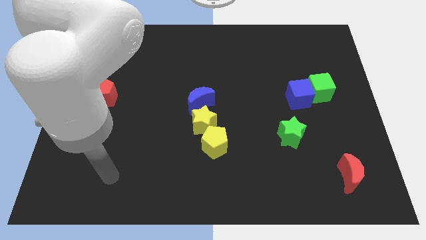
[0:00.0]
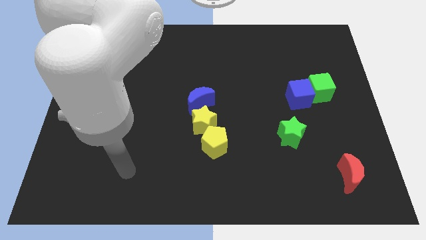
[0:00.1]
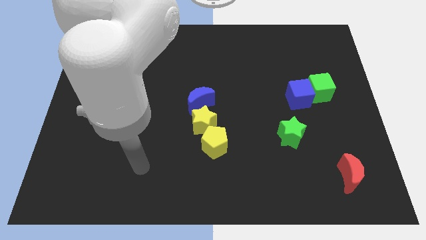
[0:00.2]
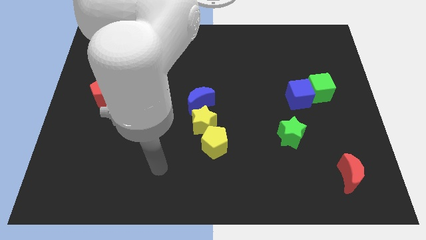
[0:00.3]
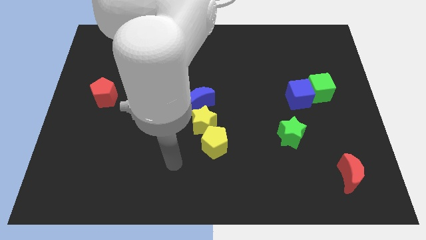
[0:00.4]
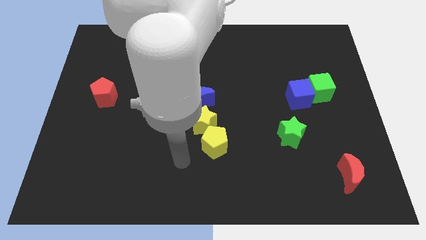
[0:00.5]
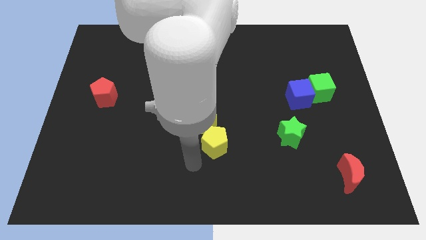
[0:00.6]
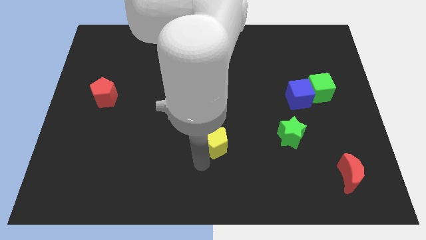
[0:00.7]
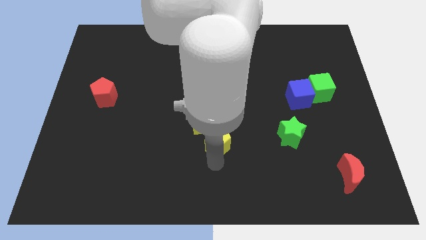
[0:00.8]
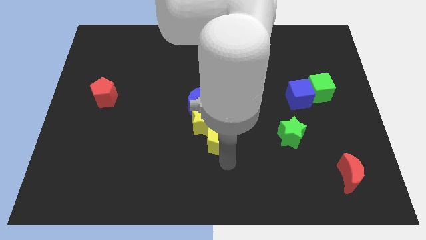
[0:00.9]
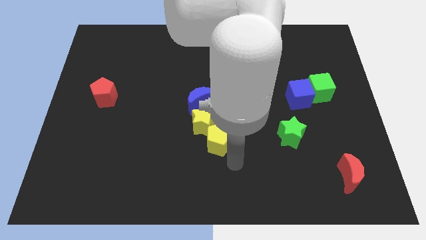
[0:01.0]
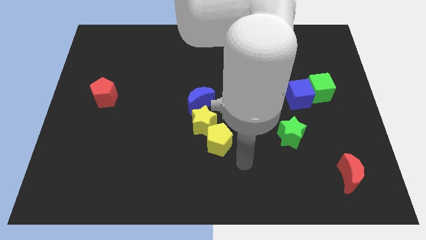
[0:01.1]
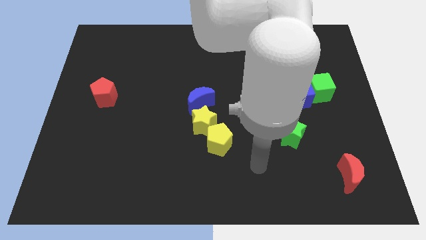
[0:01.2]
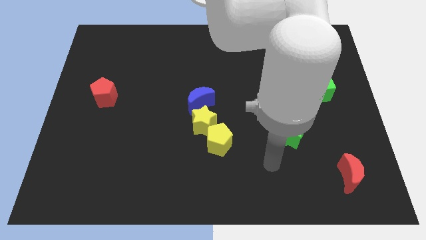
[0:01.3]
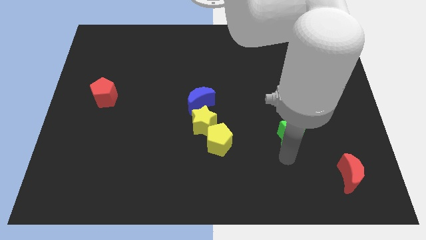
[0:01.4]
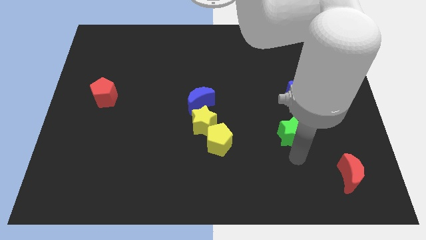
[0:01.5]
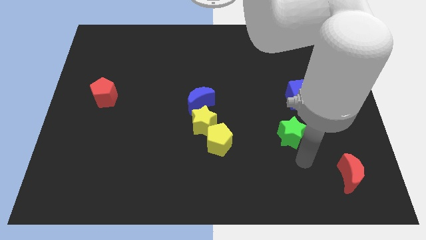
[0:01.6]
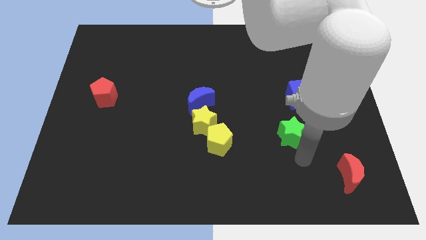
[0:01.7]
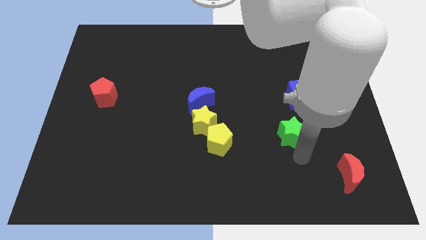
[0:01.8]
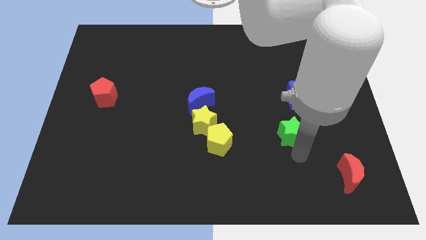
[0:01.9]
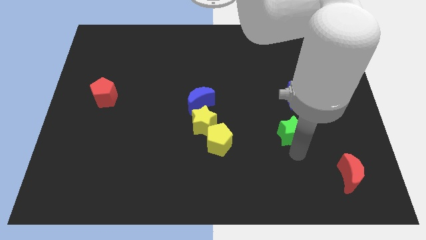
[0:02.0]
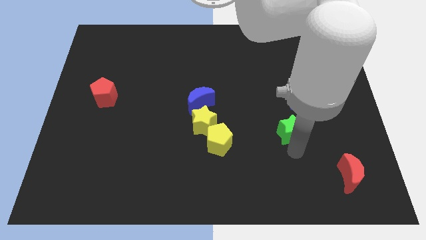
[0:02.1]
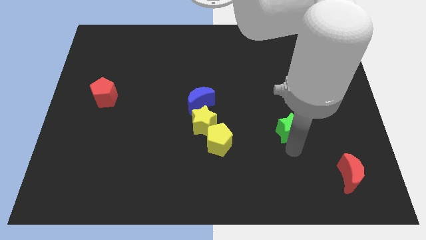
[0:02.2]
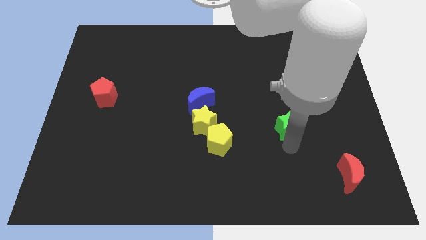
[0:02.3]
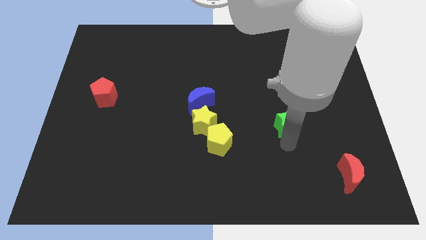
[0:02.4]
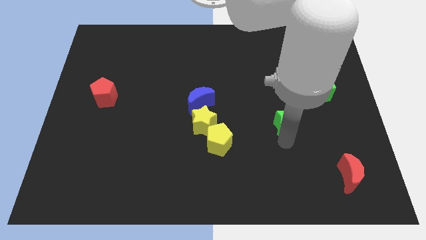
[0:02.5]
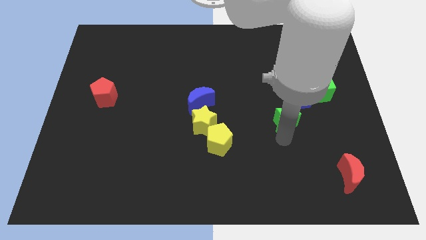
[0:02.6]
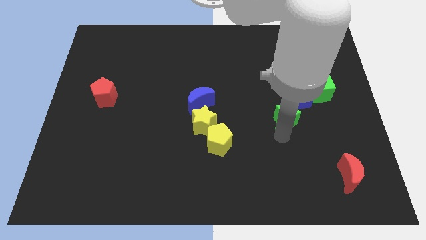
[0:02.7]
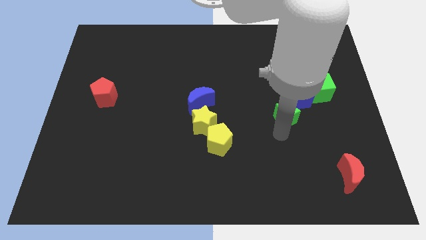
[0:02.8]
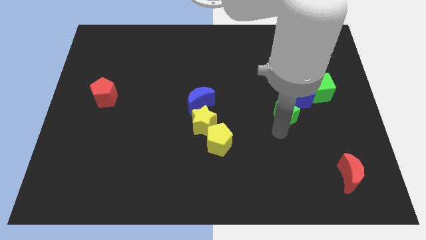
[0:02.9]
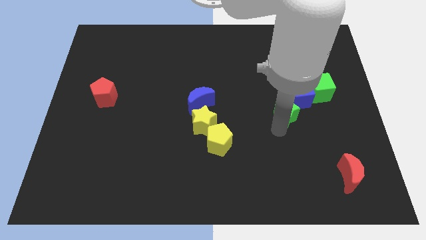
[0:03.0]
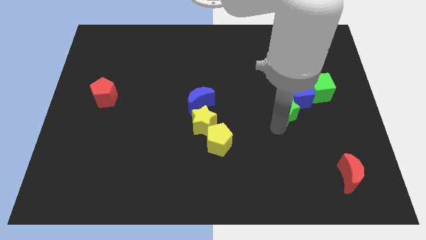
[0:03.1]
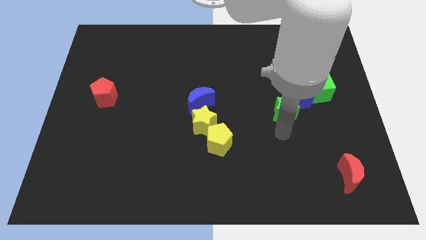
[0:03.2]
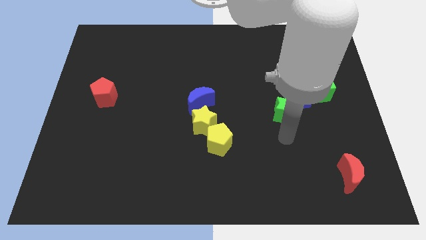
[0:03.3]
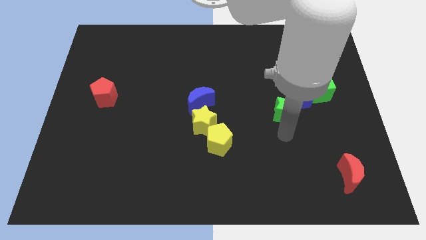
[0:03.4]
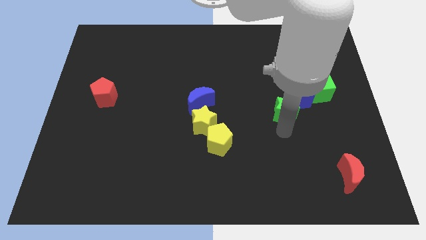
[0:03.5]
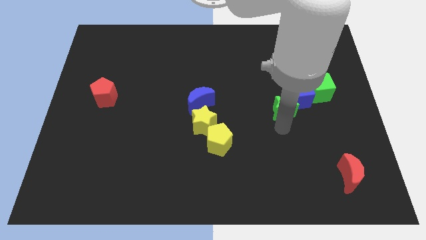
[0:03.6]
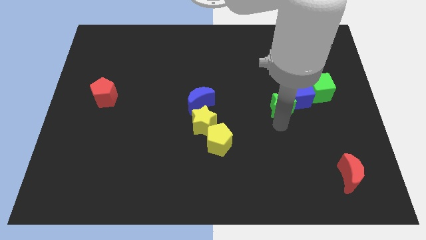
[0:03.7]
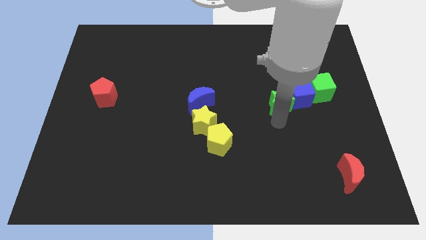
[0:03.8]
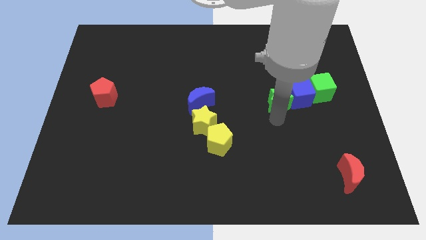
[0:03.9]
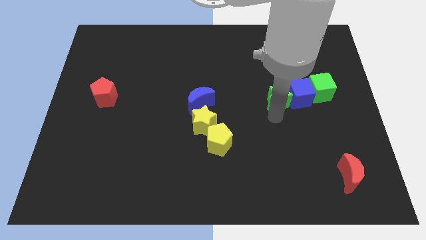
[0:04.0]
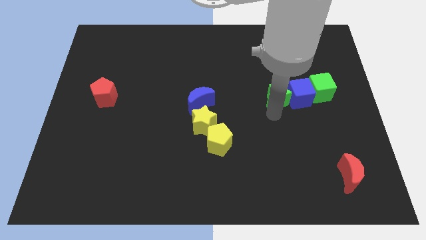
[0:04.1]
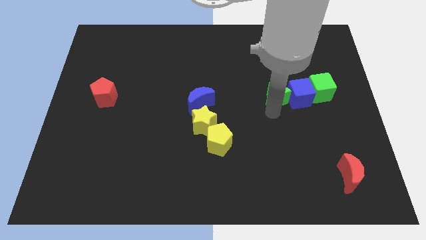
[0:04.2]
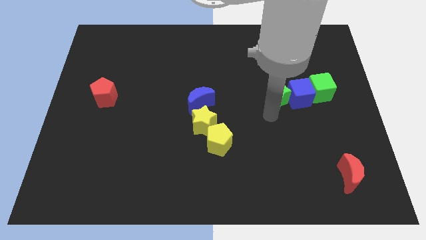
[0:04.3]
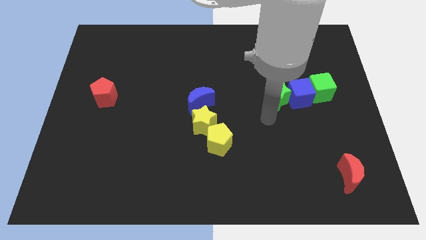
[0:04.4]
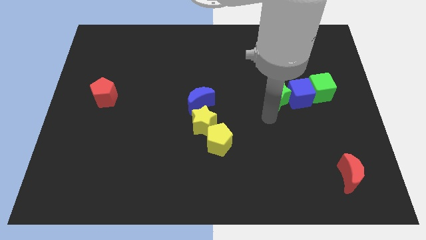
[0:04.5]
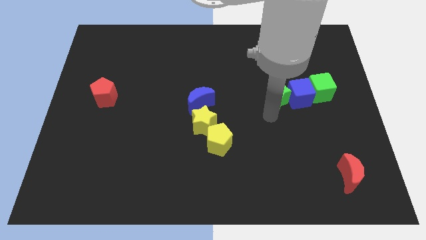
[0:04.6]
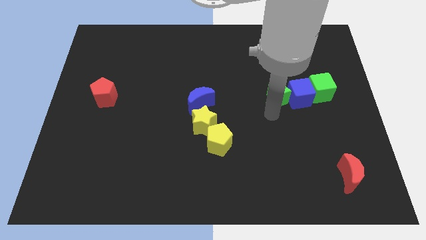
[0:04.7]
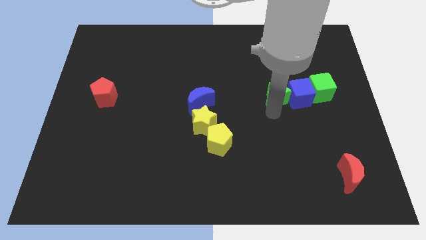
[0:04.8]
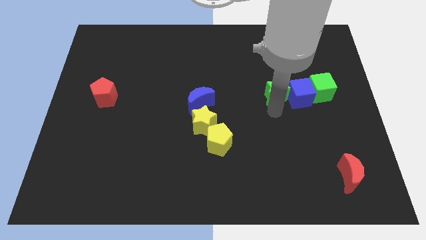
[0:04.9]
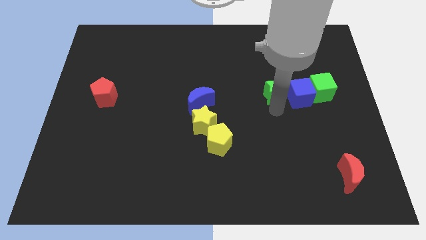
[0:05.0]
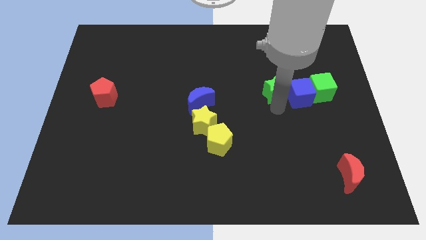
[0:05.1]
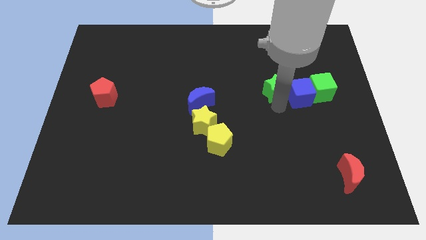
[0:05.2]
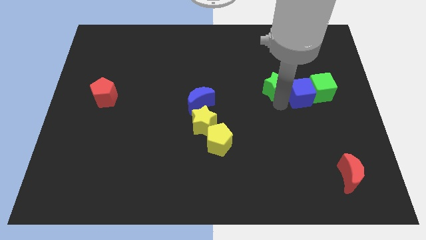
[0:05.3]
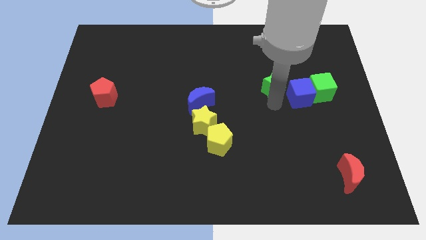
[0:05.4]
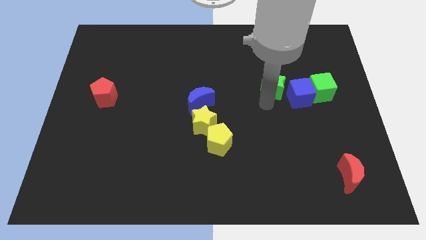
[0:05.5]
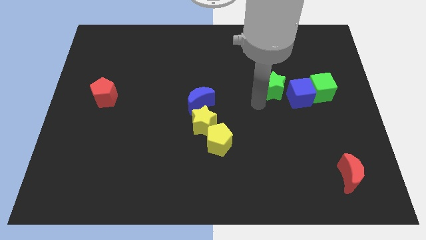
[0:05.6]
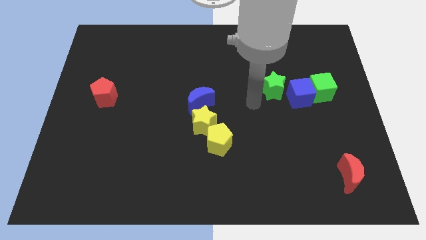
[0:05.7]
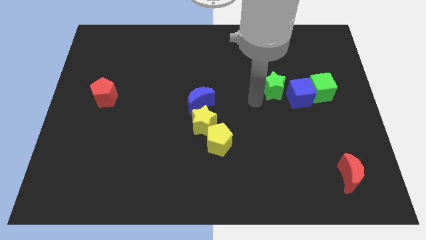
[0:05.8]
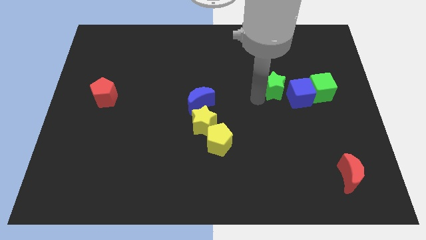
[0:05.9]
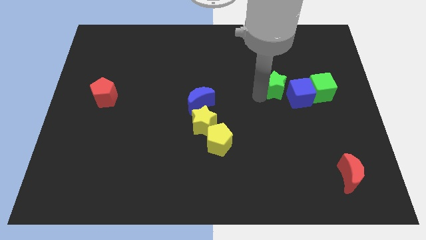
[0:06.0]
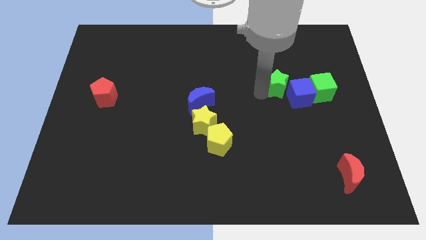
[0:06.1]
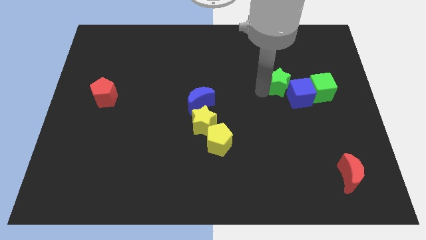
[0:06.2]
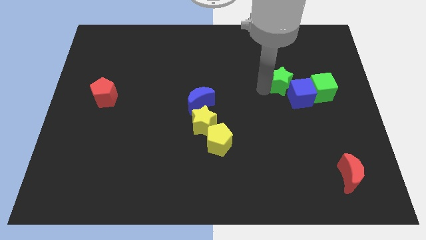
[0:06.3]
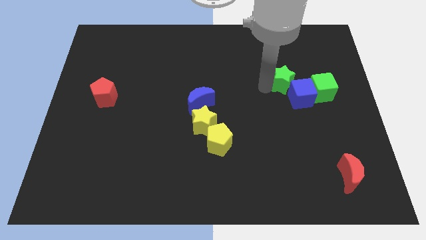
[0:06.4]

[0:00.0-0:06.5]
slide the green star diagonally up and to the left of the green cube
